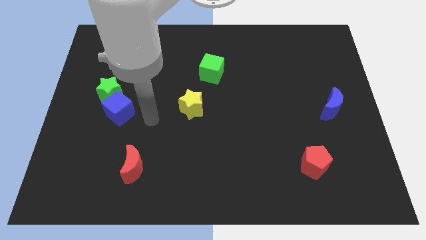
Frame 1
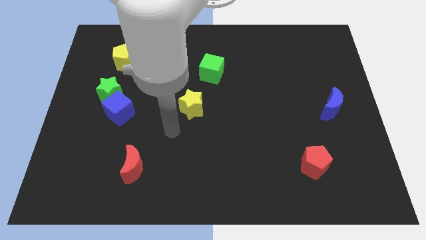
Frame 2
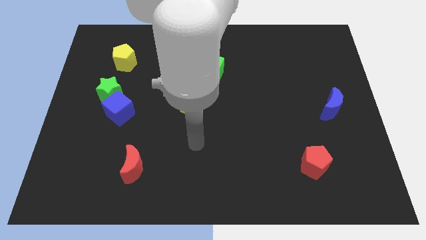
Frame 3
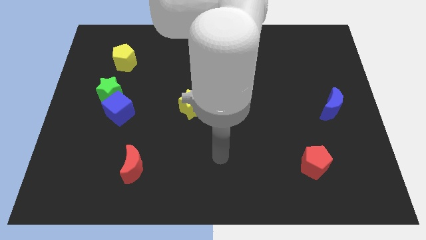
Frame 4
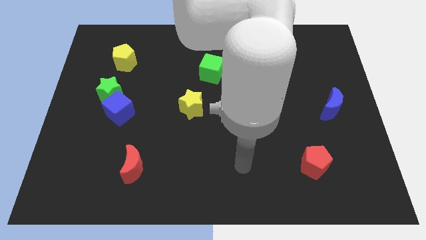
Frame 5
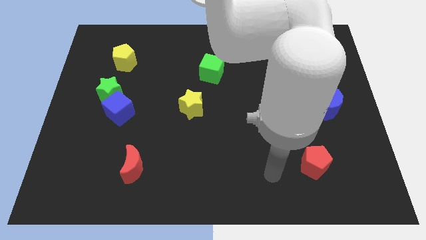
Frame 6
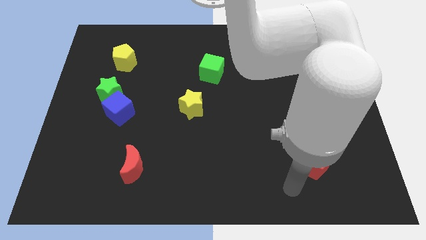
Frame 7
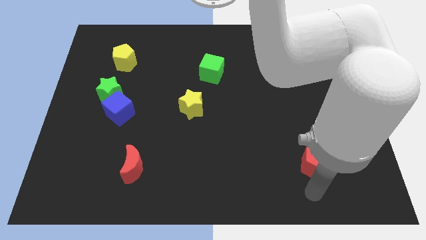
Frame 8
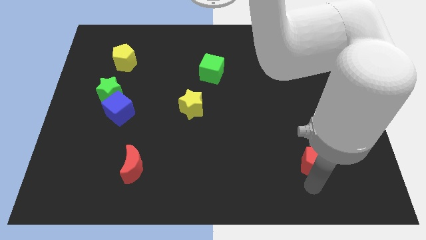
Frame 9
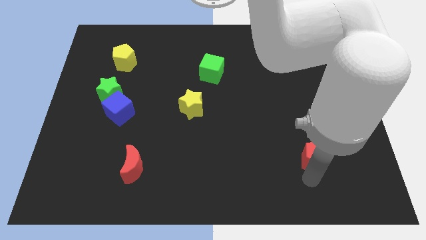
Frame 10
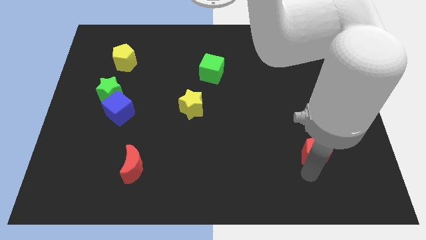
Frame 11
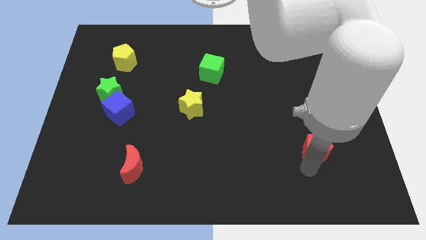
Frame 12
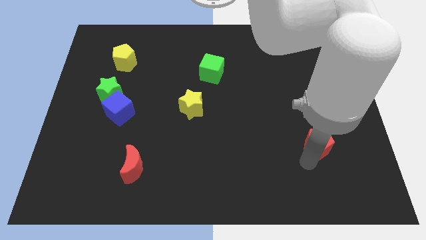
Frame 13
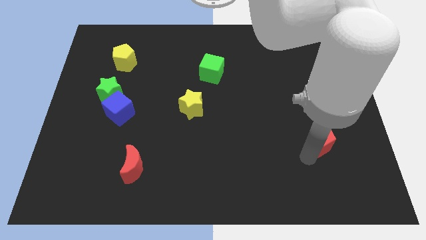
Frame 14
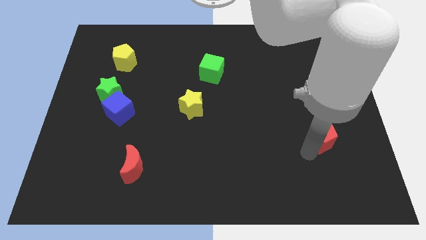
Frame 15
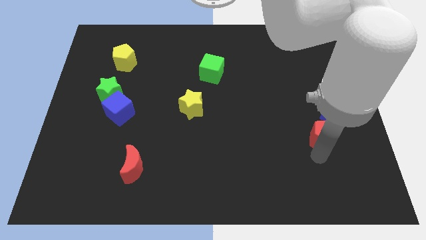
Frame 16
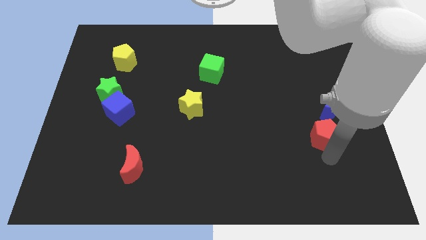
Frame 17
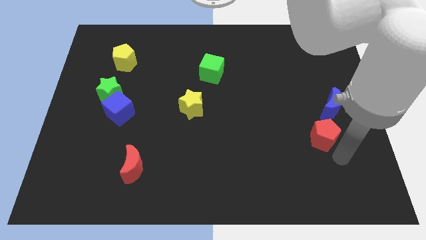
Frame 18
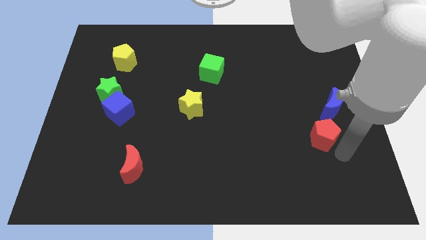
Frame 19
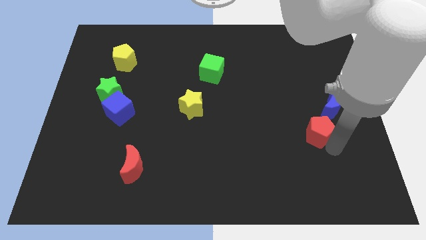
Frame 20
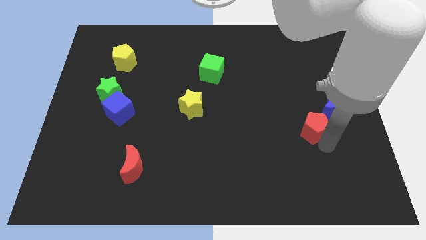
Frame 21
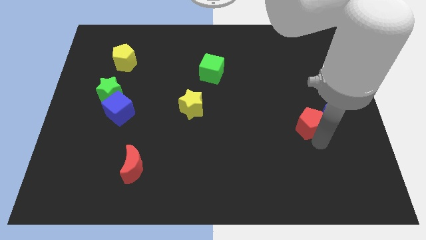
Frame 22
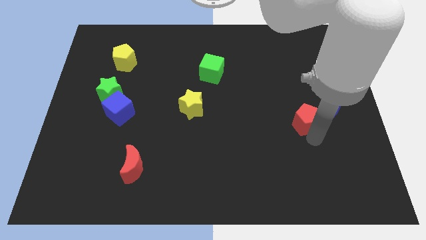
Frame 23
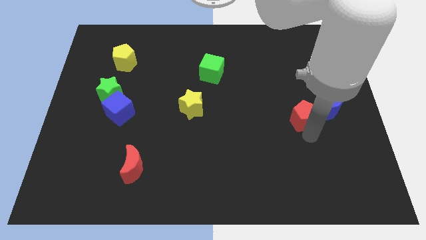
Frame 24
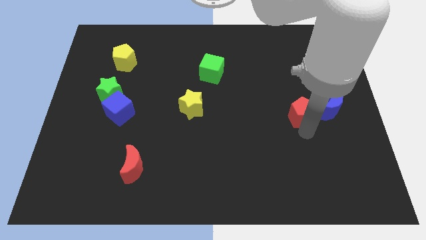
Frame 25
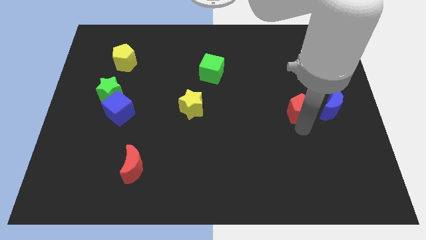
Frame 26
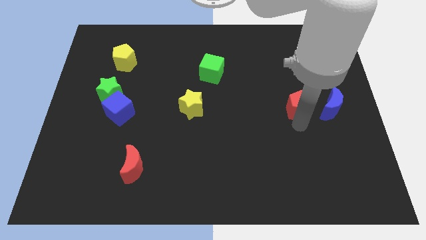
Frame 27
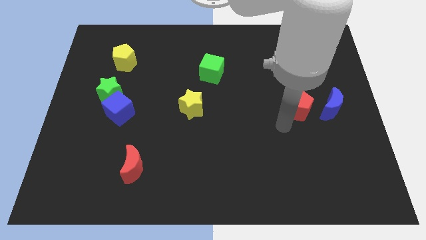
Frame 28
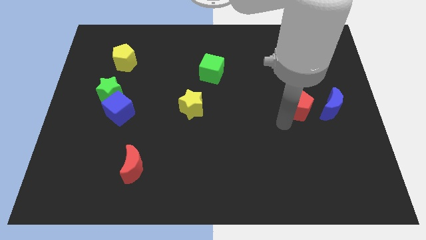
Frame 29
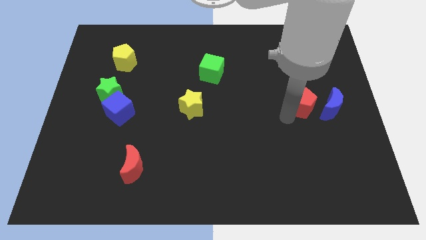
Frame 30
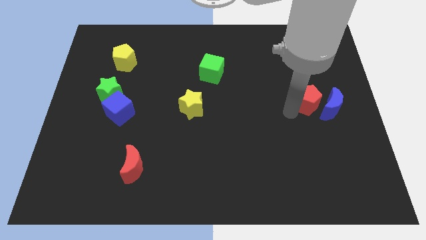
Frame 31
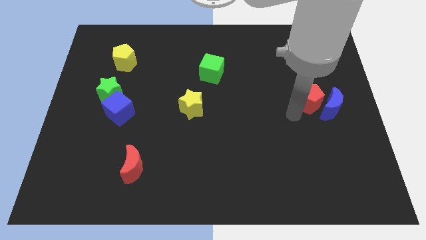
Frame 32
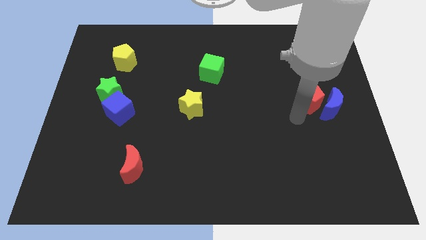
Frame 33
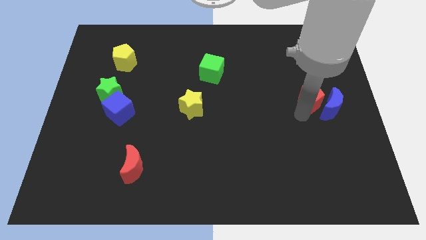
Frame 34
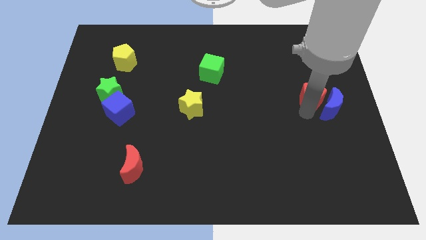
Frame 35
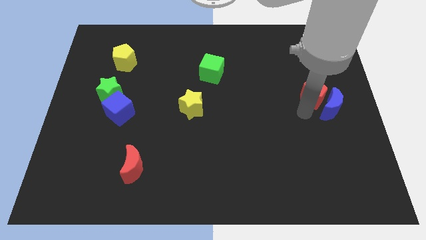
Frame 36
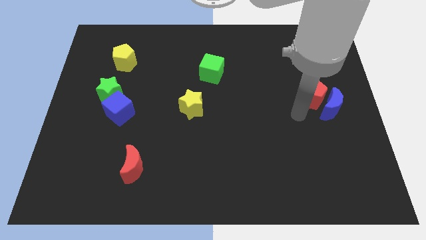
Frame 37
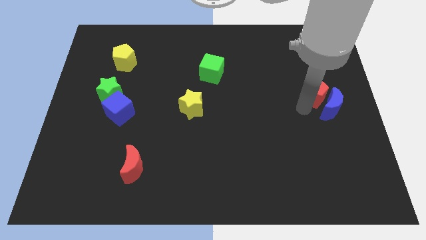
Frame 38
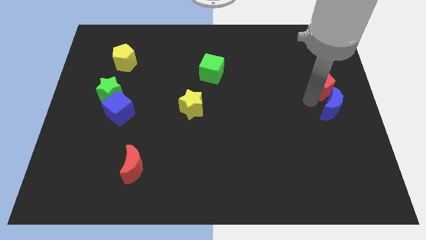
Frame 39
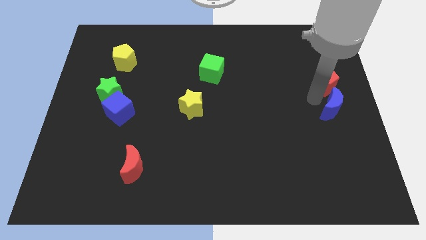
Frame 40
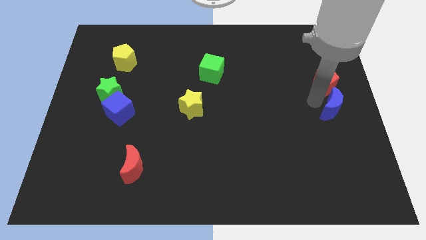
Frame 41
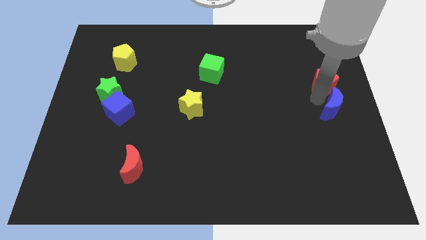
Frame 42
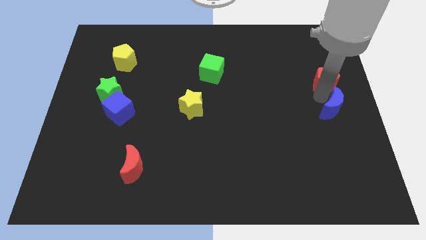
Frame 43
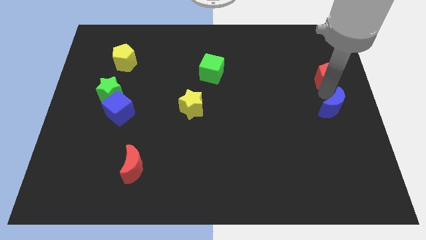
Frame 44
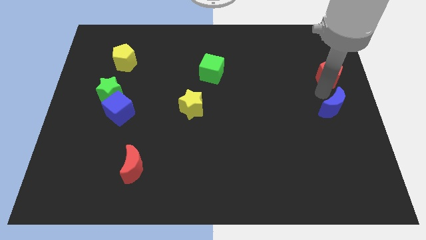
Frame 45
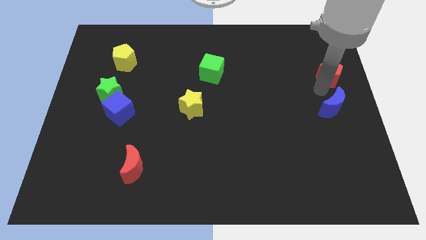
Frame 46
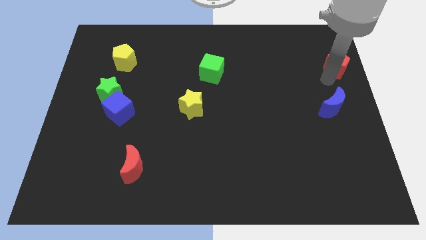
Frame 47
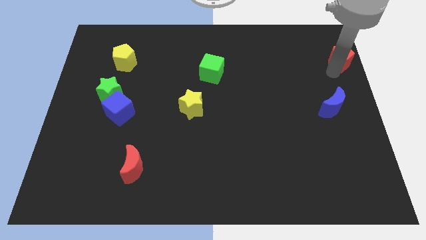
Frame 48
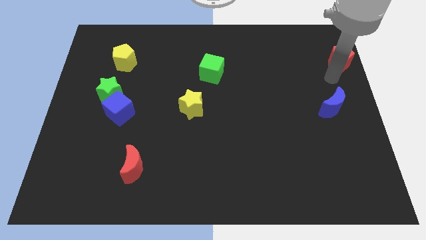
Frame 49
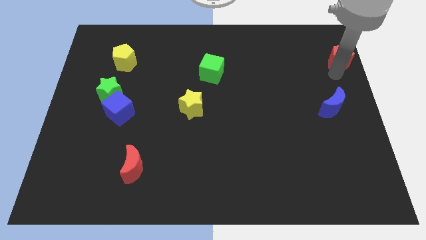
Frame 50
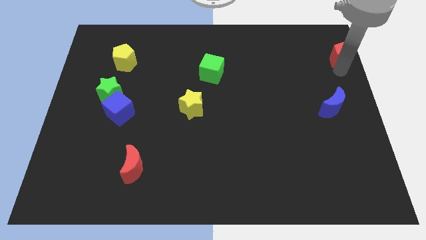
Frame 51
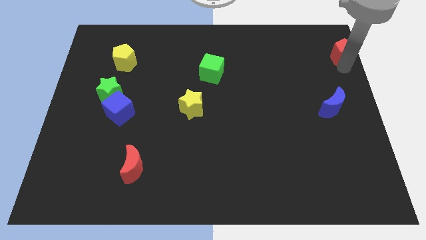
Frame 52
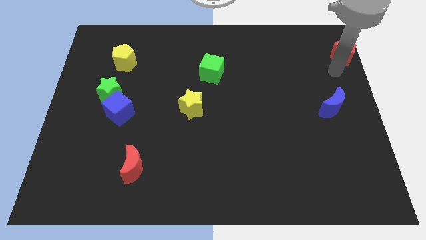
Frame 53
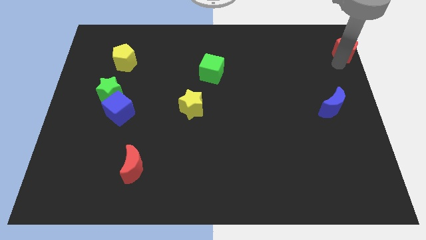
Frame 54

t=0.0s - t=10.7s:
put the red pentagon to the top right of the board

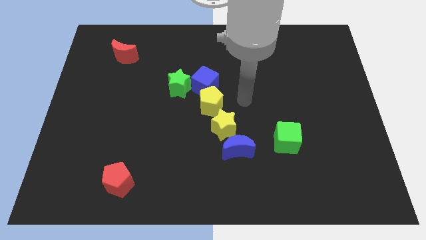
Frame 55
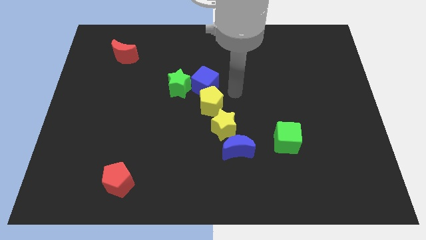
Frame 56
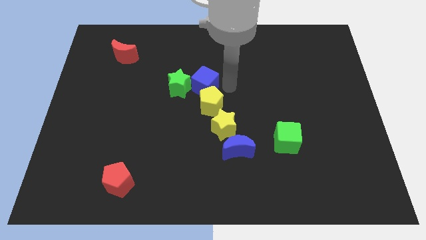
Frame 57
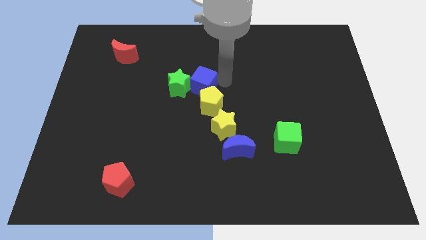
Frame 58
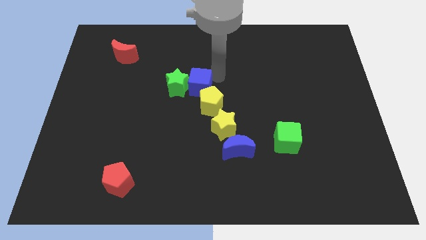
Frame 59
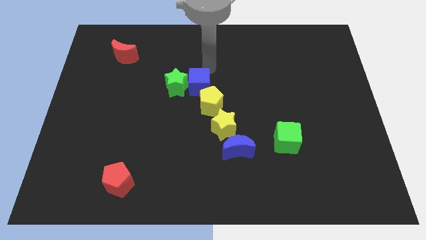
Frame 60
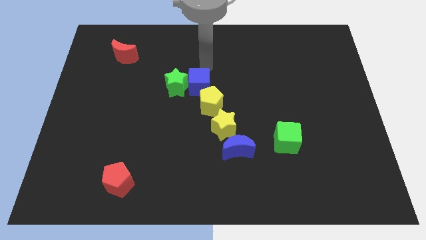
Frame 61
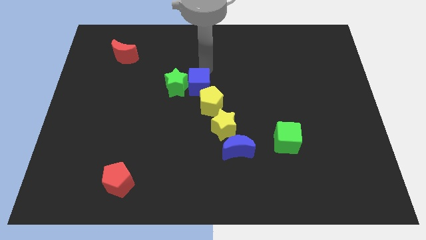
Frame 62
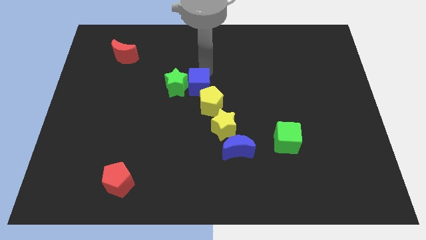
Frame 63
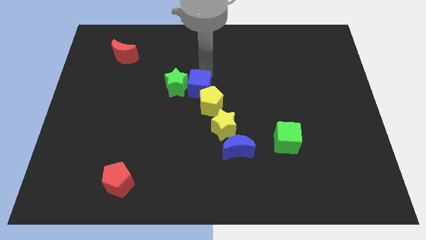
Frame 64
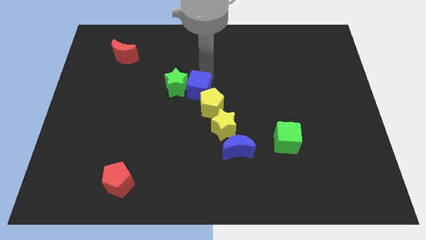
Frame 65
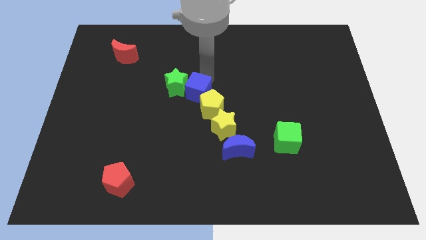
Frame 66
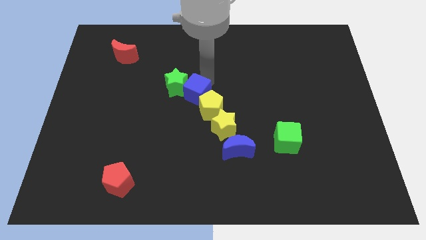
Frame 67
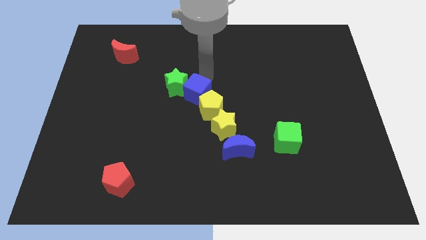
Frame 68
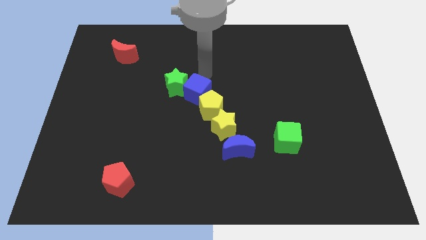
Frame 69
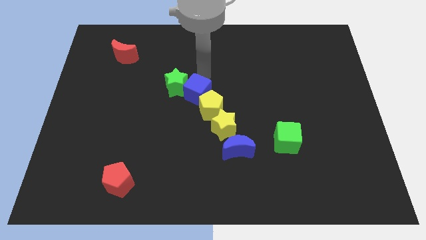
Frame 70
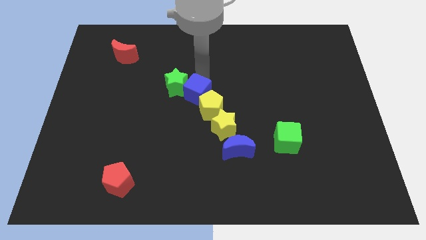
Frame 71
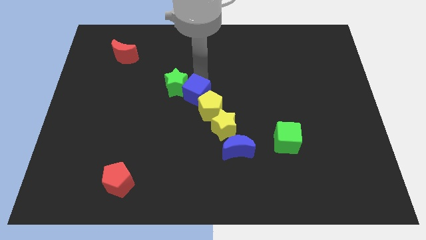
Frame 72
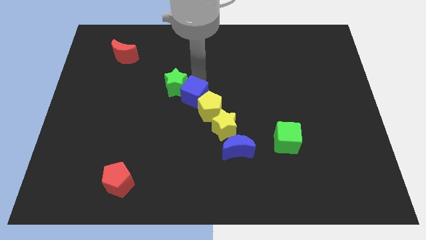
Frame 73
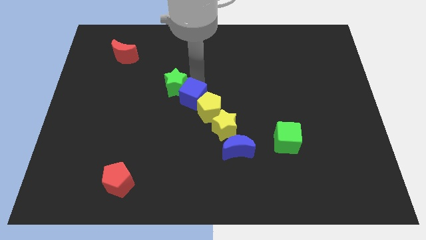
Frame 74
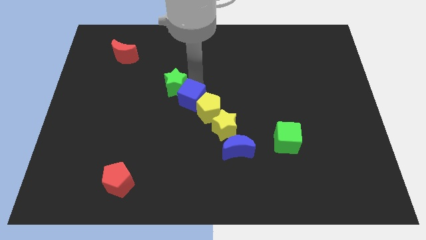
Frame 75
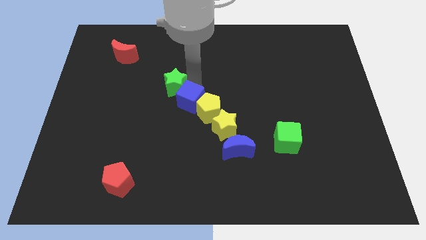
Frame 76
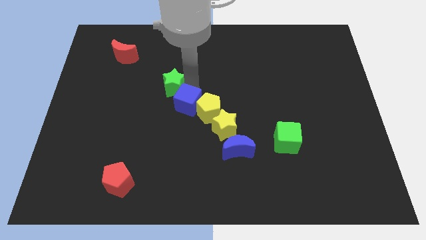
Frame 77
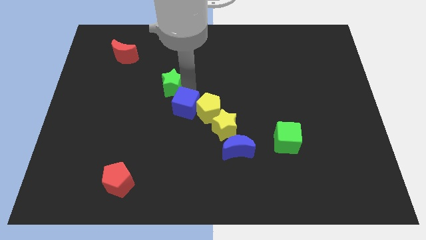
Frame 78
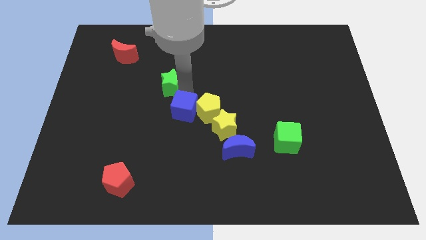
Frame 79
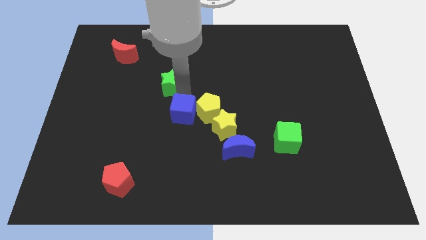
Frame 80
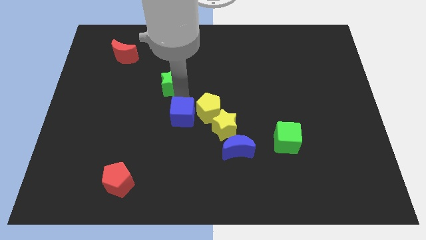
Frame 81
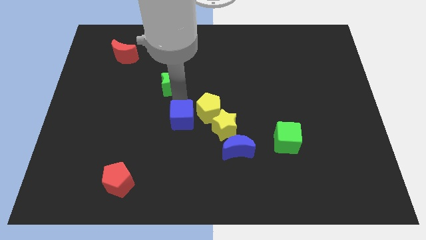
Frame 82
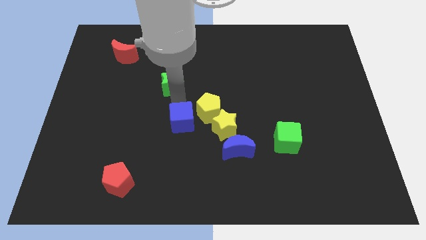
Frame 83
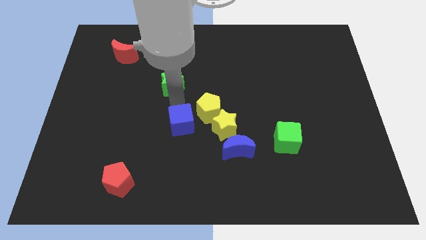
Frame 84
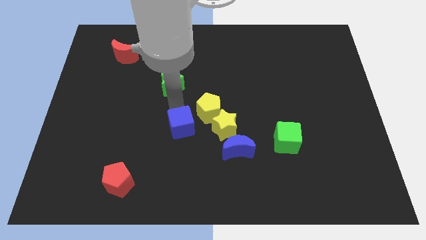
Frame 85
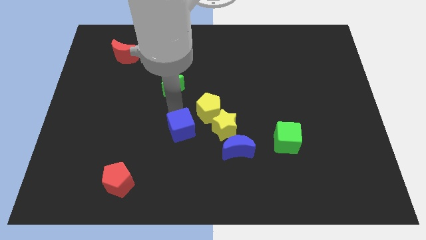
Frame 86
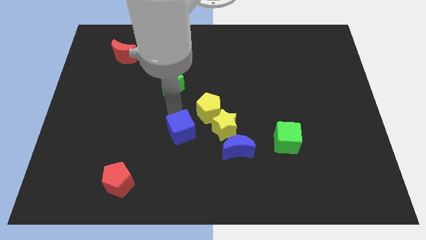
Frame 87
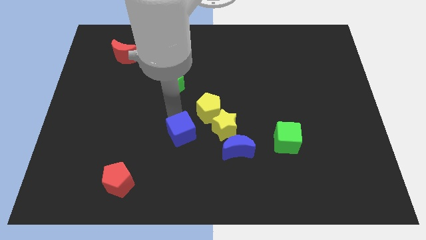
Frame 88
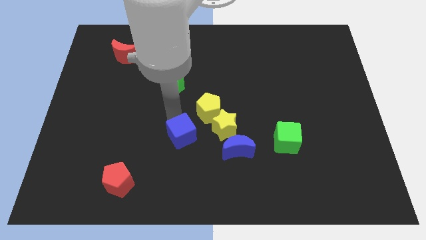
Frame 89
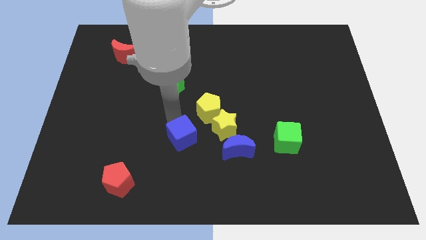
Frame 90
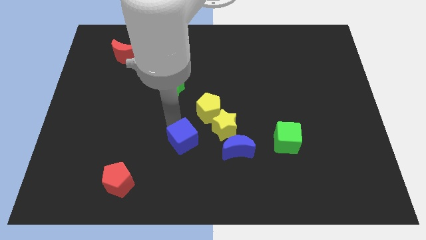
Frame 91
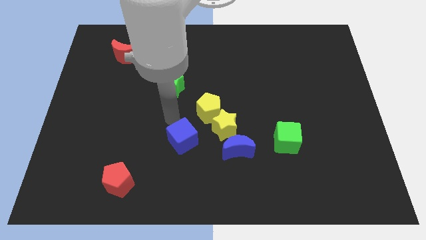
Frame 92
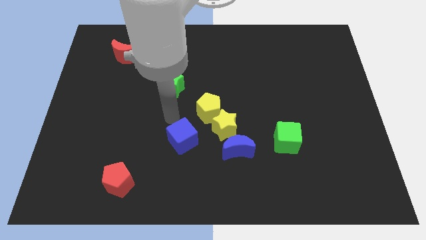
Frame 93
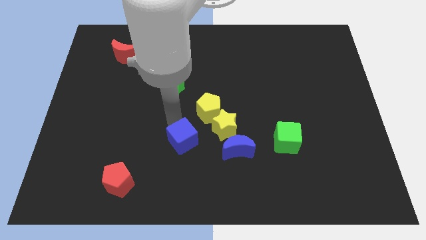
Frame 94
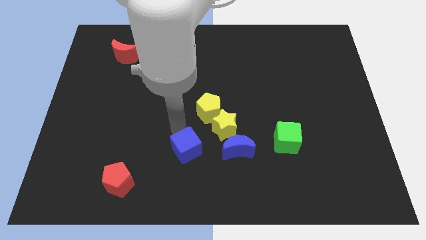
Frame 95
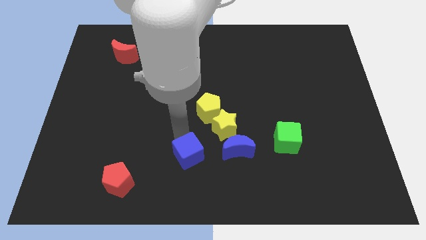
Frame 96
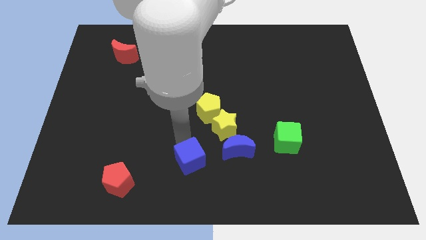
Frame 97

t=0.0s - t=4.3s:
put the blue cube to the bottom side
